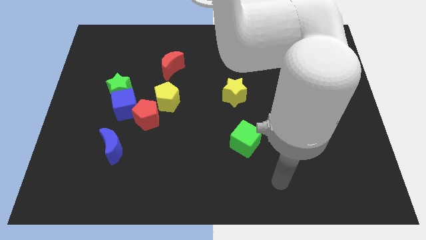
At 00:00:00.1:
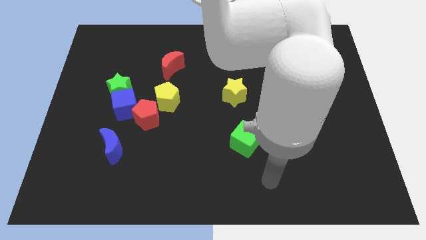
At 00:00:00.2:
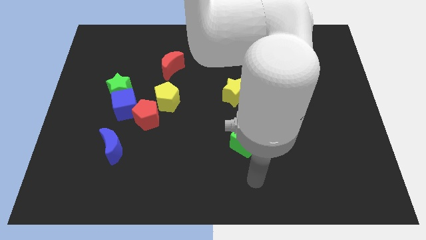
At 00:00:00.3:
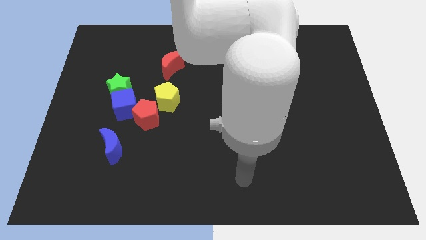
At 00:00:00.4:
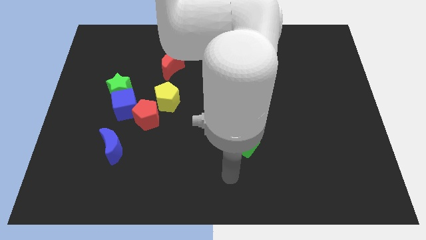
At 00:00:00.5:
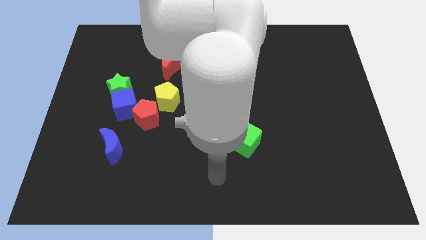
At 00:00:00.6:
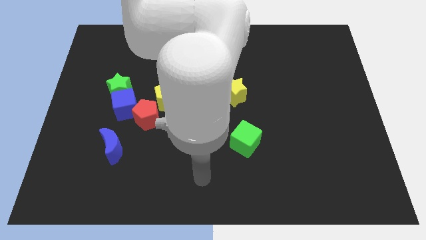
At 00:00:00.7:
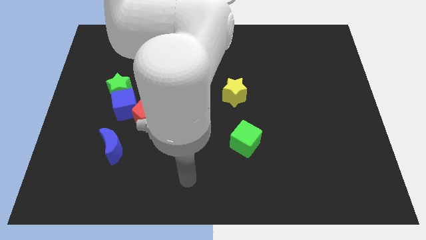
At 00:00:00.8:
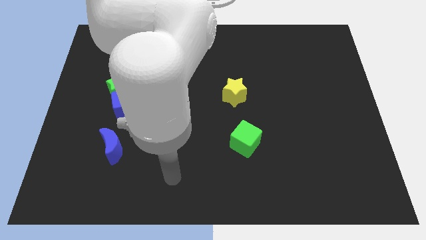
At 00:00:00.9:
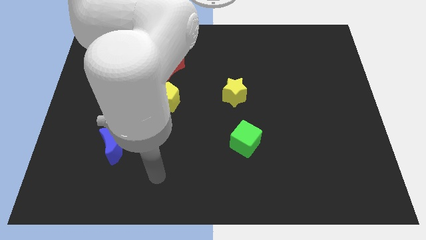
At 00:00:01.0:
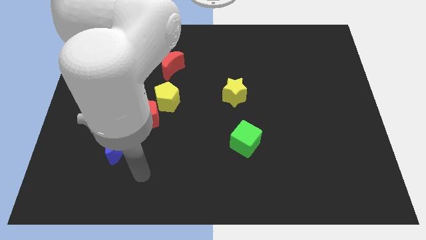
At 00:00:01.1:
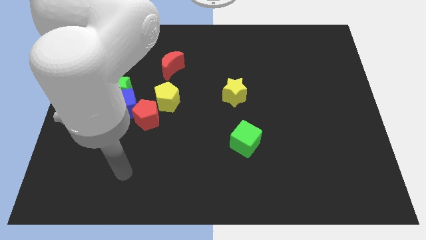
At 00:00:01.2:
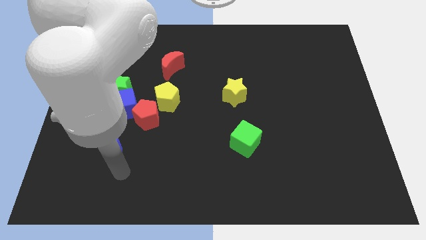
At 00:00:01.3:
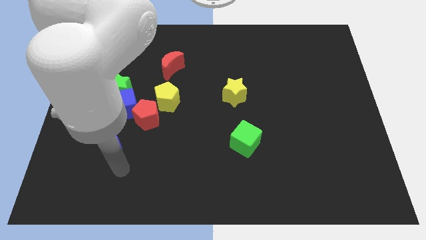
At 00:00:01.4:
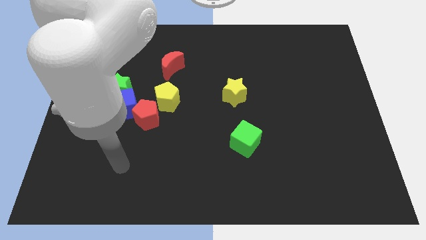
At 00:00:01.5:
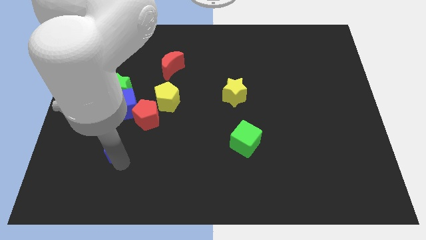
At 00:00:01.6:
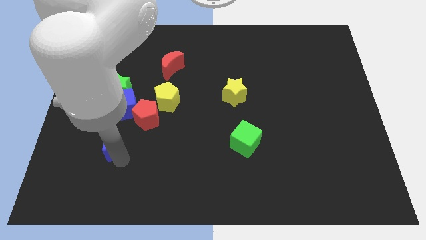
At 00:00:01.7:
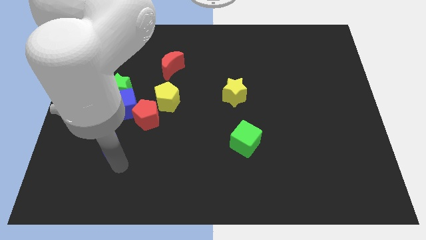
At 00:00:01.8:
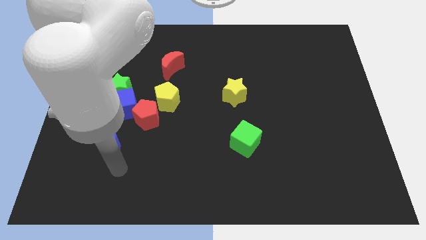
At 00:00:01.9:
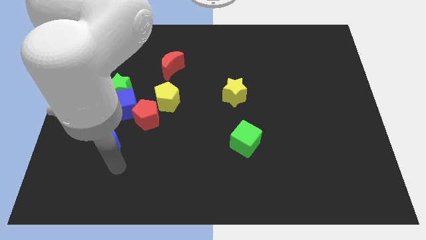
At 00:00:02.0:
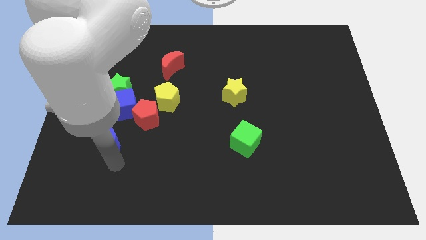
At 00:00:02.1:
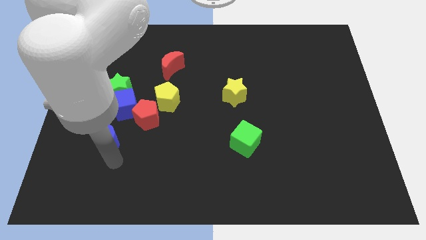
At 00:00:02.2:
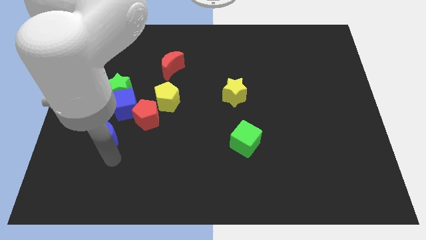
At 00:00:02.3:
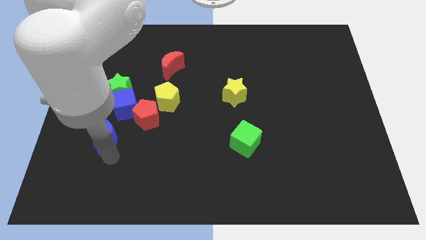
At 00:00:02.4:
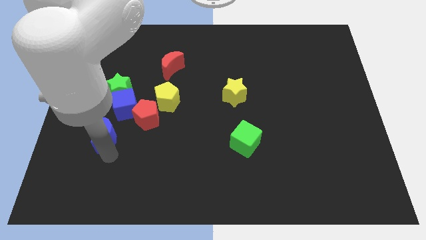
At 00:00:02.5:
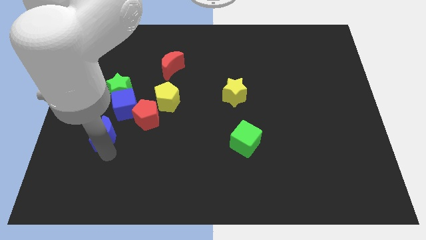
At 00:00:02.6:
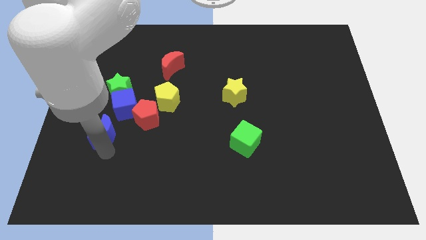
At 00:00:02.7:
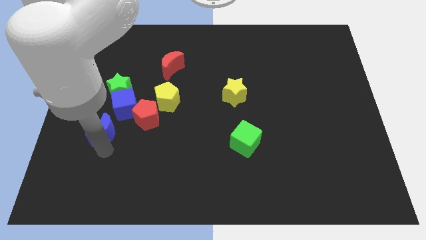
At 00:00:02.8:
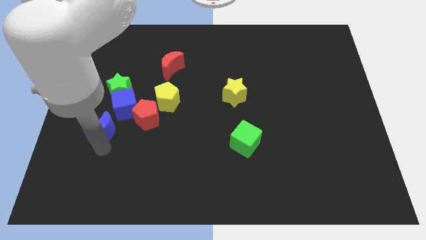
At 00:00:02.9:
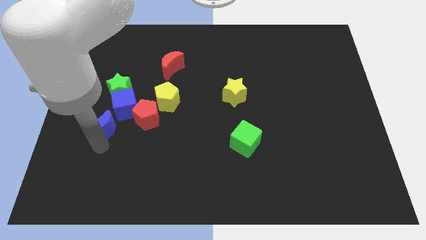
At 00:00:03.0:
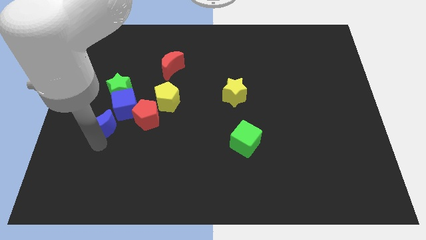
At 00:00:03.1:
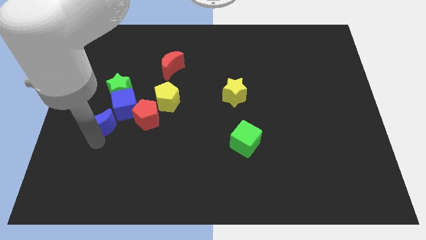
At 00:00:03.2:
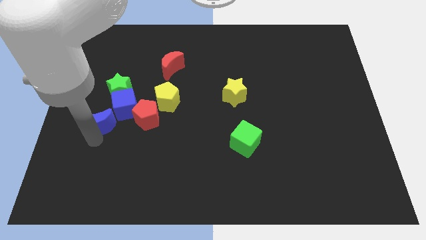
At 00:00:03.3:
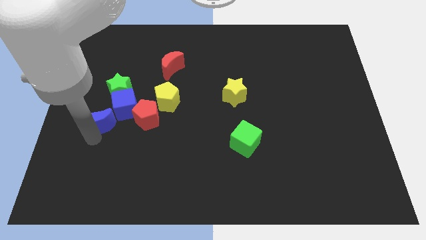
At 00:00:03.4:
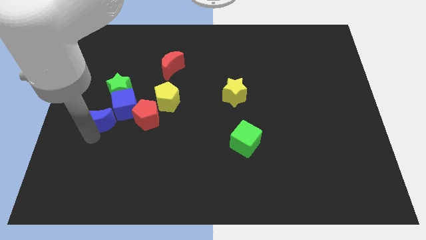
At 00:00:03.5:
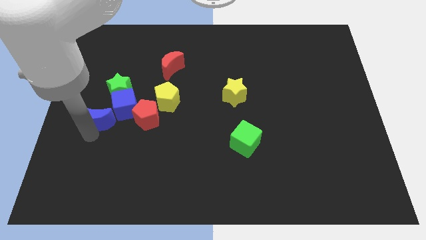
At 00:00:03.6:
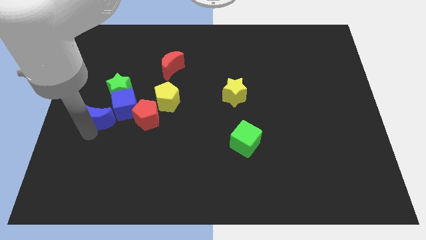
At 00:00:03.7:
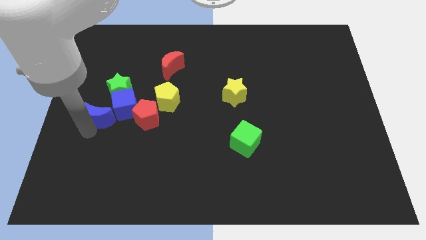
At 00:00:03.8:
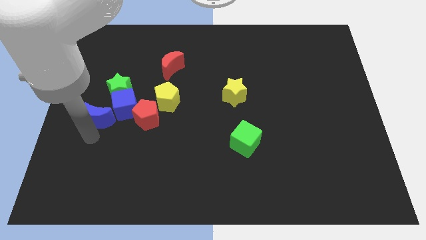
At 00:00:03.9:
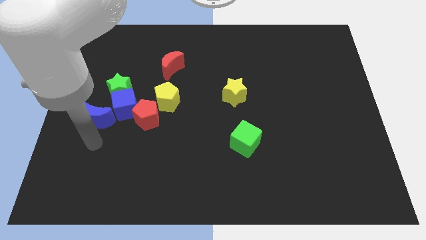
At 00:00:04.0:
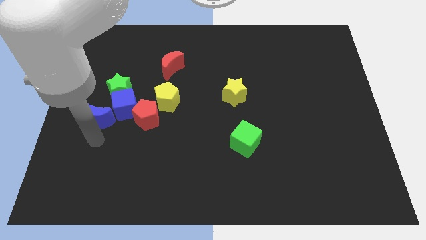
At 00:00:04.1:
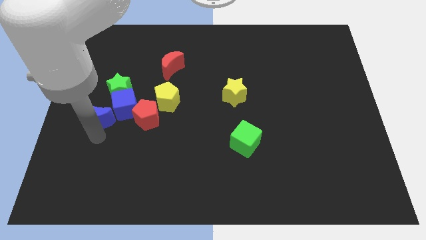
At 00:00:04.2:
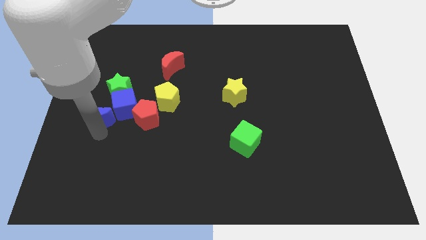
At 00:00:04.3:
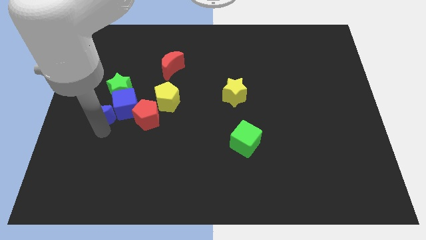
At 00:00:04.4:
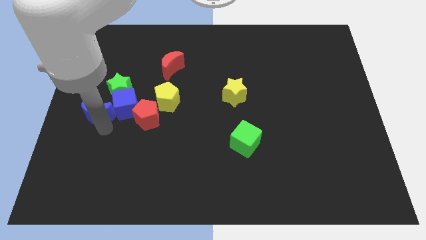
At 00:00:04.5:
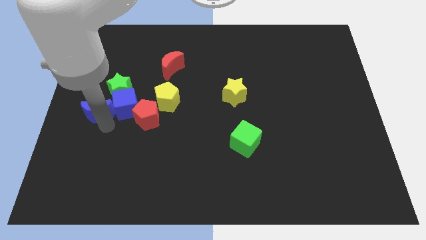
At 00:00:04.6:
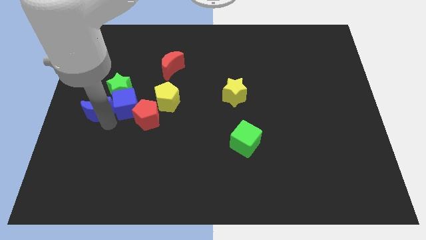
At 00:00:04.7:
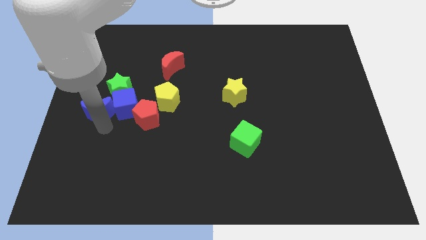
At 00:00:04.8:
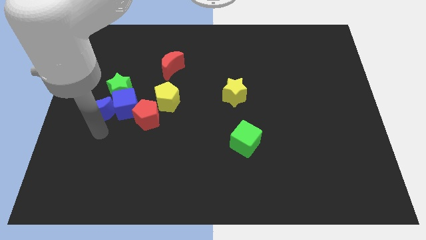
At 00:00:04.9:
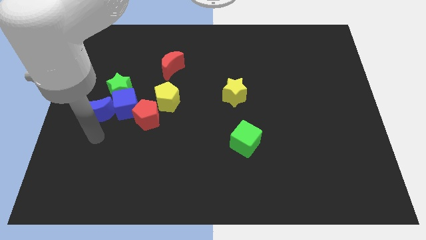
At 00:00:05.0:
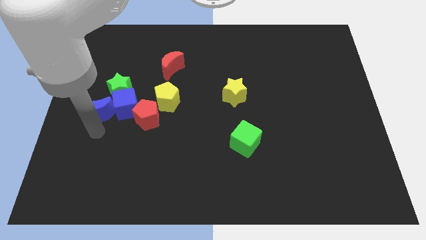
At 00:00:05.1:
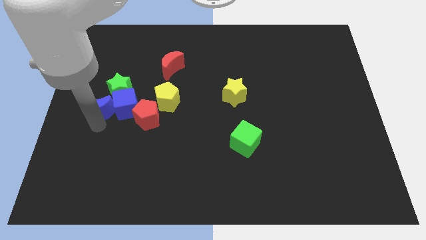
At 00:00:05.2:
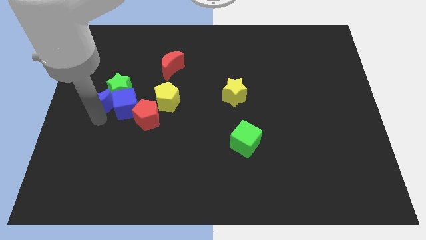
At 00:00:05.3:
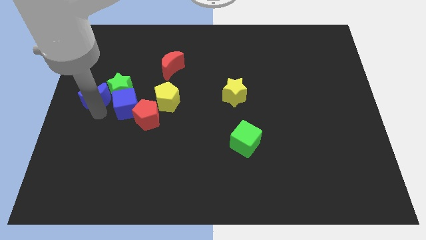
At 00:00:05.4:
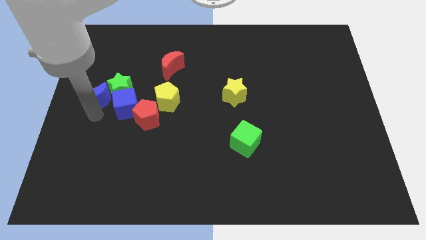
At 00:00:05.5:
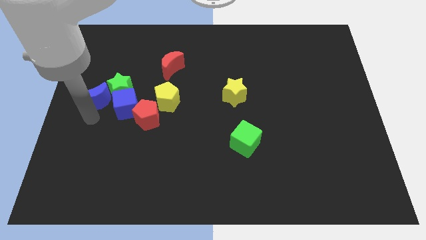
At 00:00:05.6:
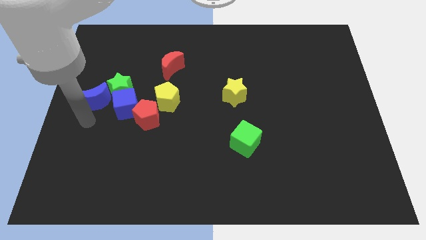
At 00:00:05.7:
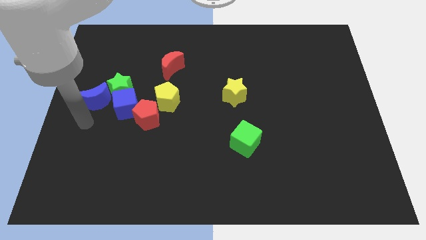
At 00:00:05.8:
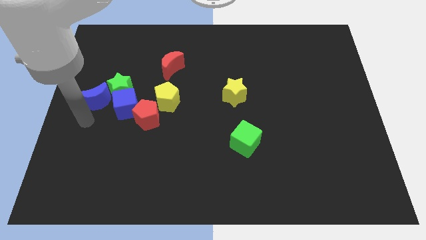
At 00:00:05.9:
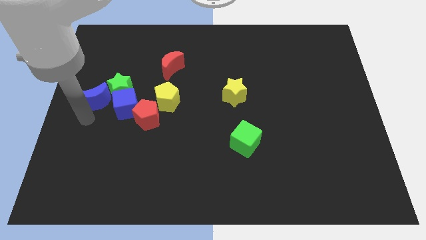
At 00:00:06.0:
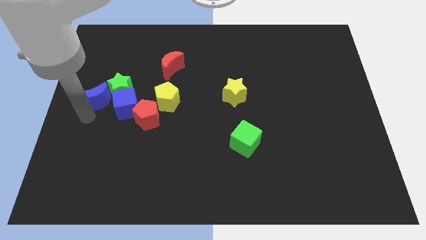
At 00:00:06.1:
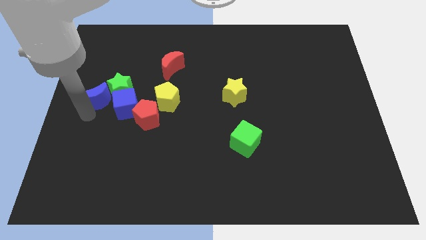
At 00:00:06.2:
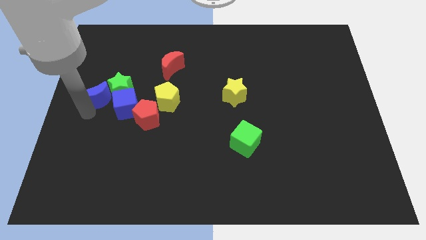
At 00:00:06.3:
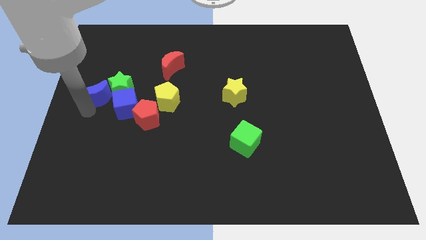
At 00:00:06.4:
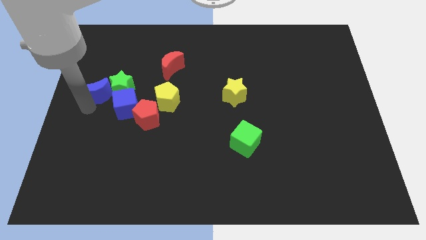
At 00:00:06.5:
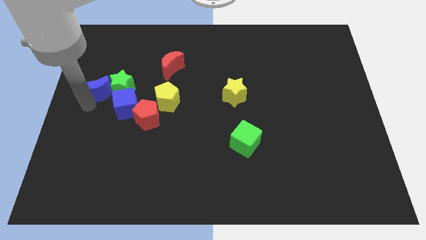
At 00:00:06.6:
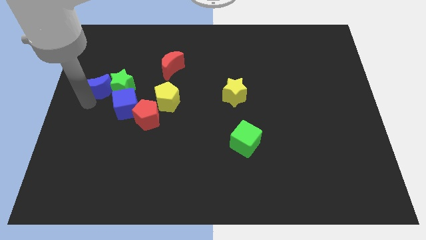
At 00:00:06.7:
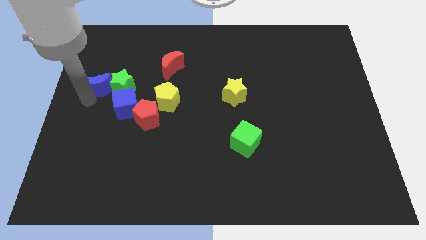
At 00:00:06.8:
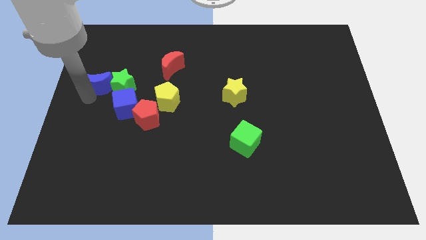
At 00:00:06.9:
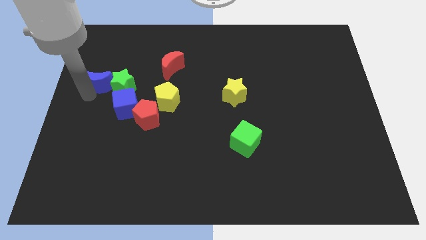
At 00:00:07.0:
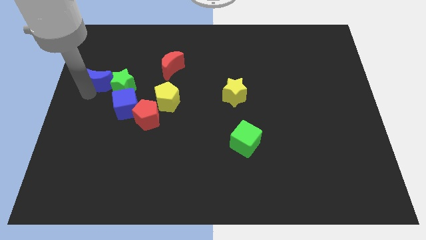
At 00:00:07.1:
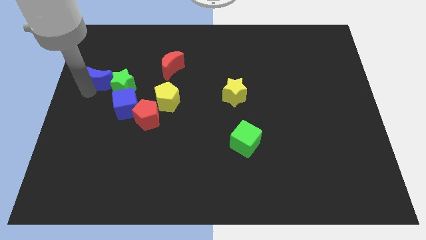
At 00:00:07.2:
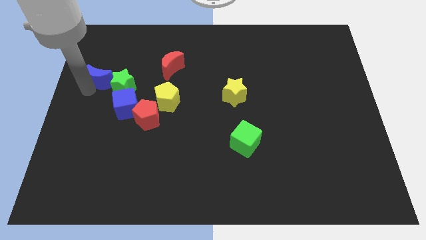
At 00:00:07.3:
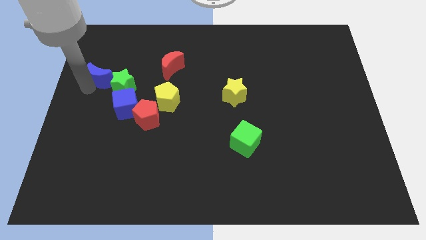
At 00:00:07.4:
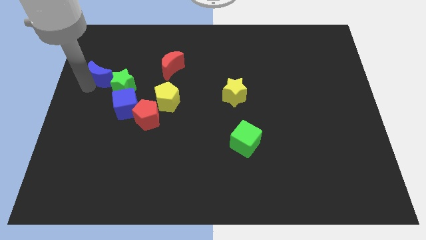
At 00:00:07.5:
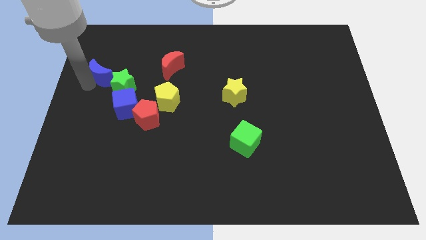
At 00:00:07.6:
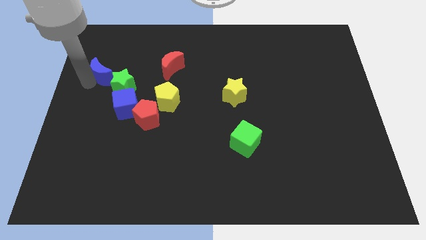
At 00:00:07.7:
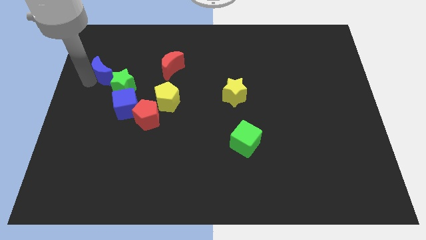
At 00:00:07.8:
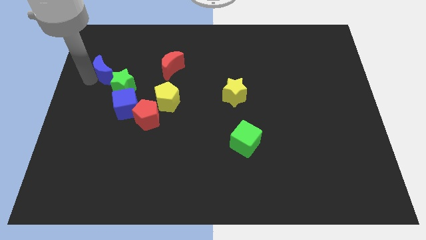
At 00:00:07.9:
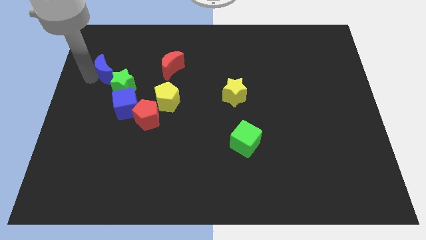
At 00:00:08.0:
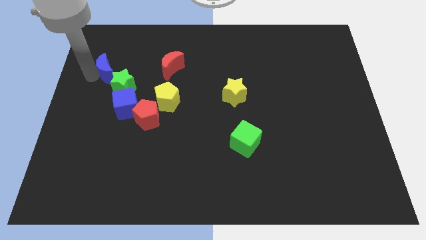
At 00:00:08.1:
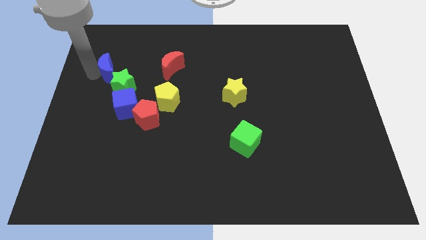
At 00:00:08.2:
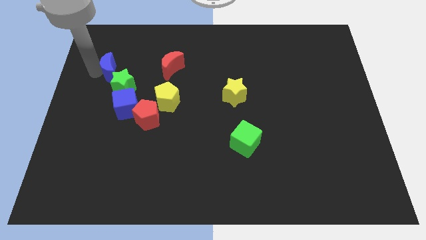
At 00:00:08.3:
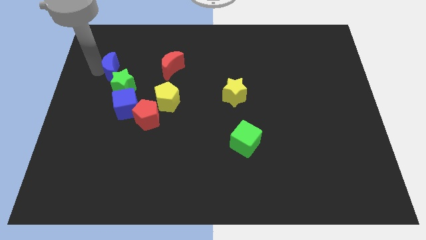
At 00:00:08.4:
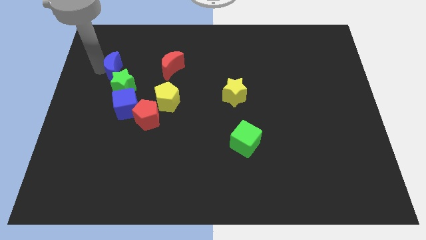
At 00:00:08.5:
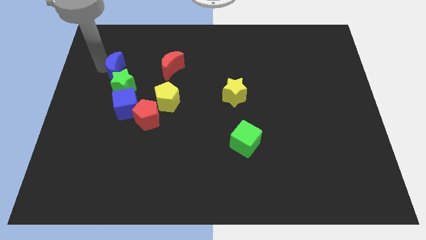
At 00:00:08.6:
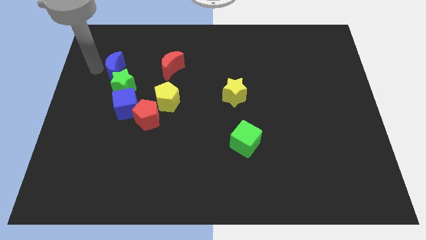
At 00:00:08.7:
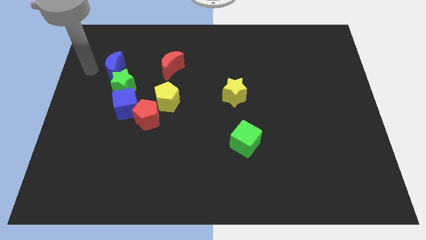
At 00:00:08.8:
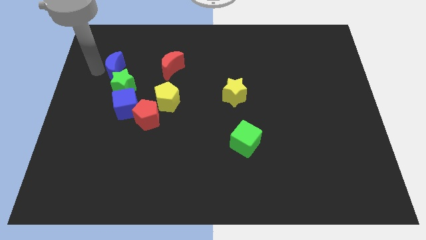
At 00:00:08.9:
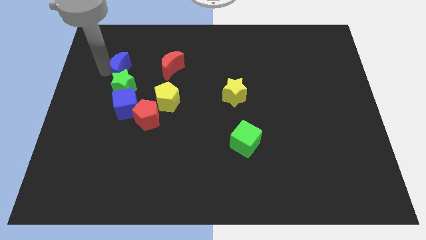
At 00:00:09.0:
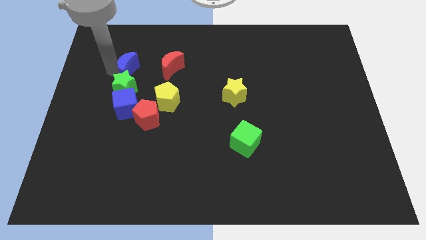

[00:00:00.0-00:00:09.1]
move the blue moon diagonally up and to the right of the green star
